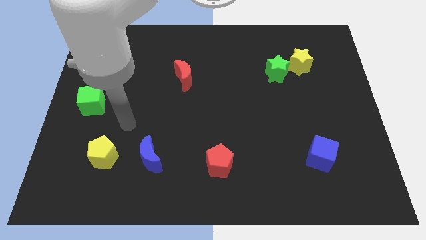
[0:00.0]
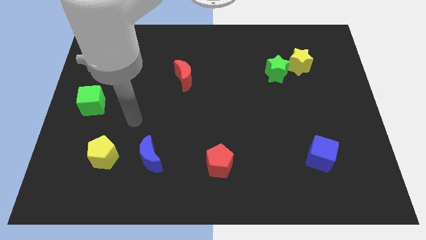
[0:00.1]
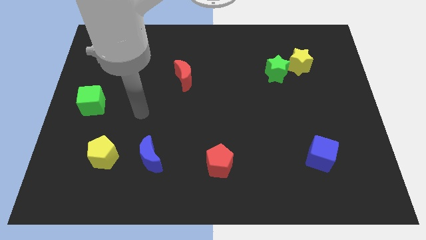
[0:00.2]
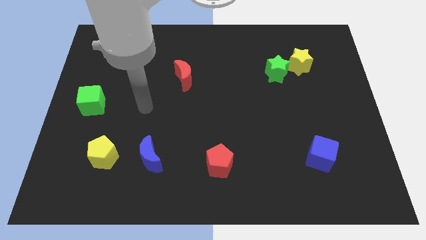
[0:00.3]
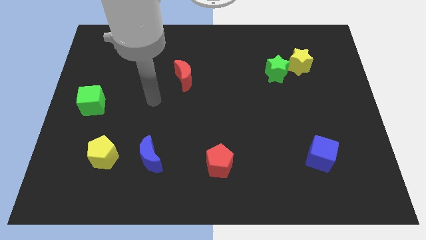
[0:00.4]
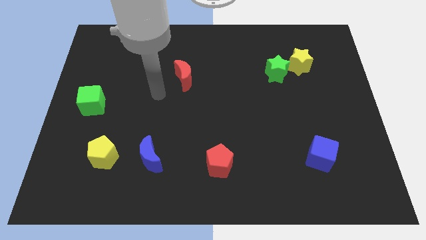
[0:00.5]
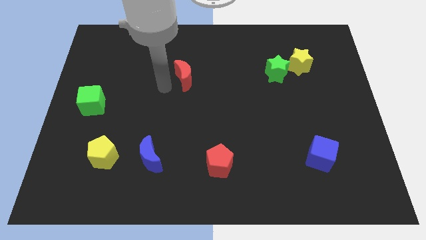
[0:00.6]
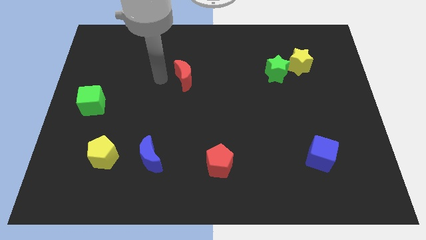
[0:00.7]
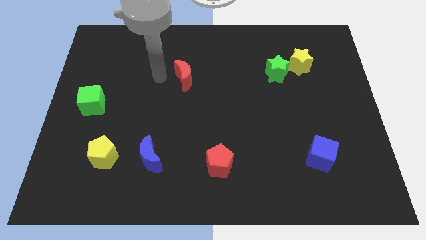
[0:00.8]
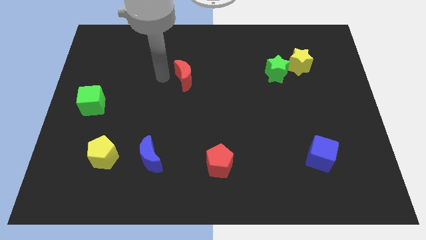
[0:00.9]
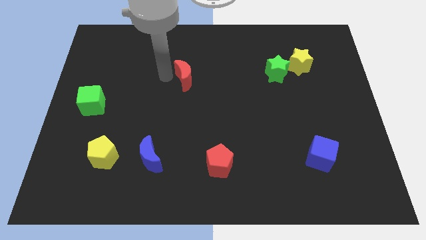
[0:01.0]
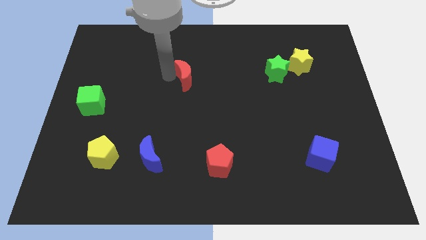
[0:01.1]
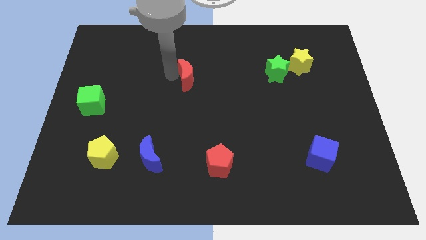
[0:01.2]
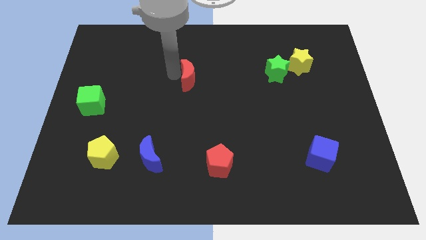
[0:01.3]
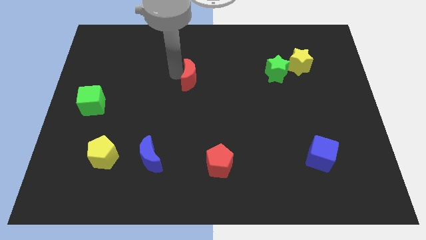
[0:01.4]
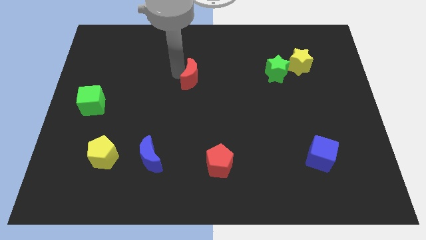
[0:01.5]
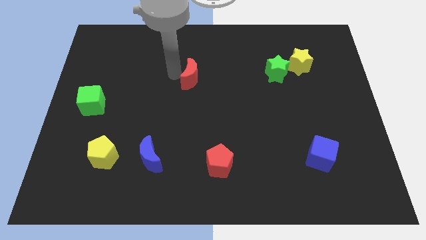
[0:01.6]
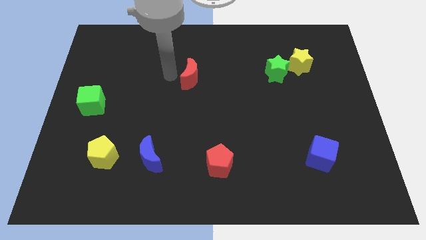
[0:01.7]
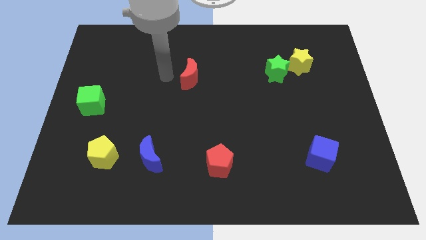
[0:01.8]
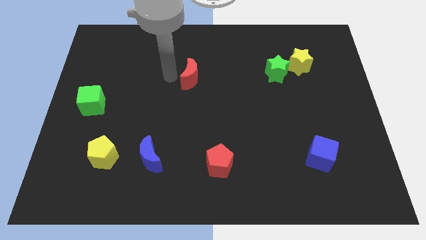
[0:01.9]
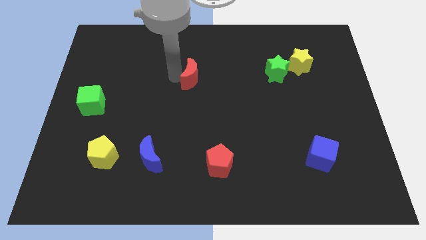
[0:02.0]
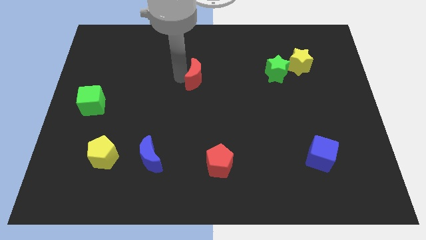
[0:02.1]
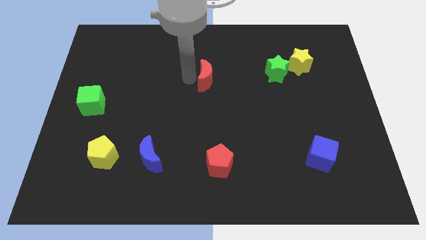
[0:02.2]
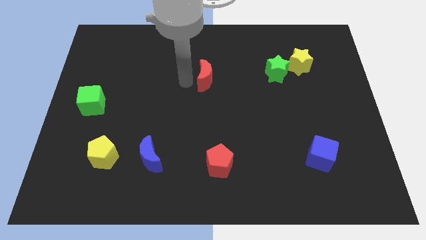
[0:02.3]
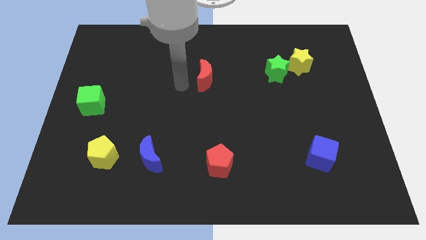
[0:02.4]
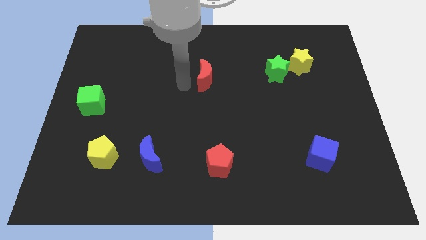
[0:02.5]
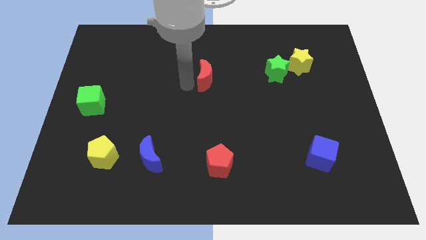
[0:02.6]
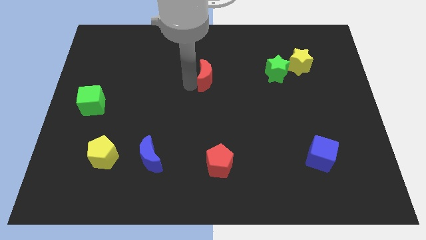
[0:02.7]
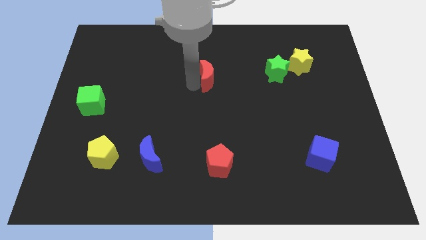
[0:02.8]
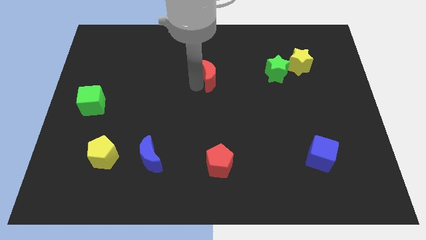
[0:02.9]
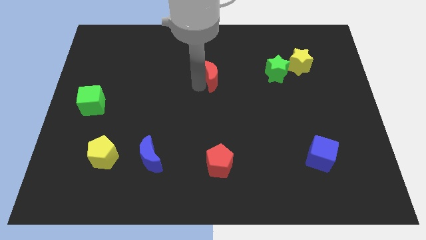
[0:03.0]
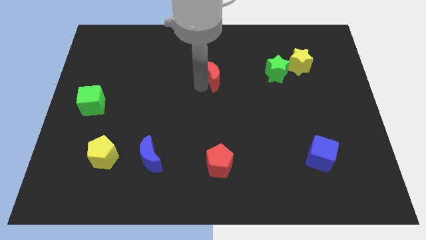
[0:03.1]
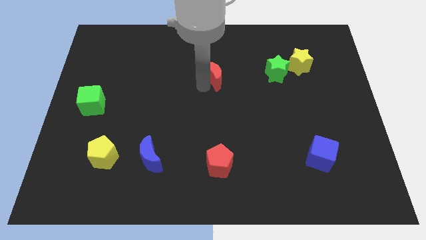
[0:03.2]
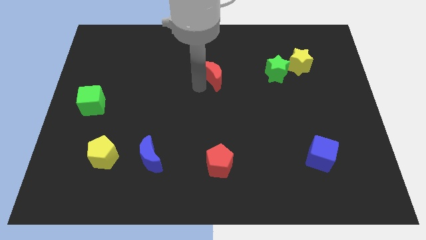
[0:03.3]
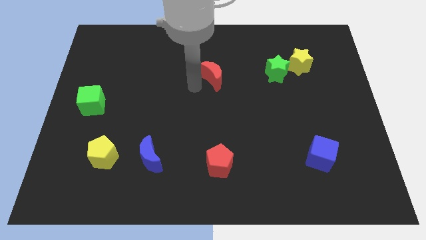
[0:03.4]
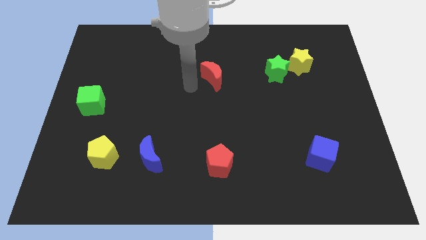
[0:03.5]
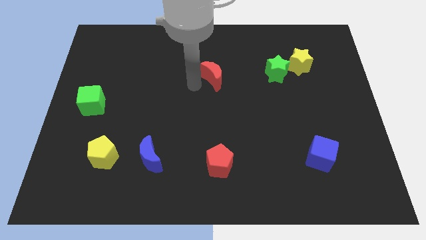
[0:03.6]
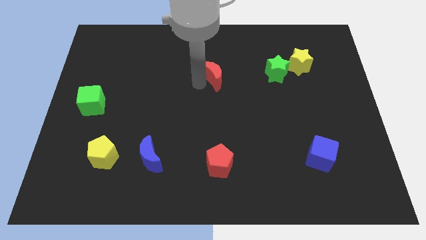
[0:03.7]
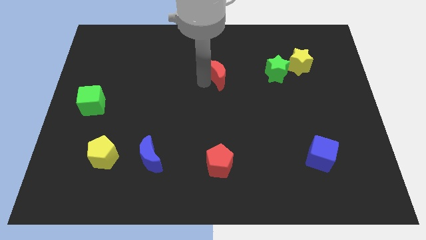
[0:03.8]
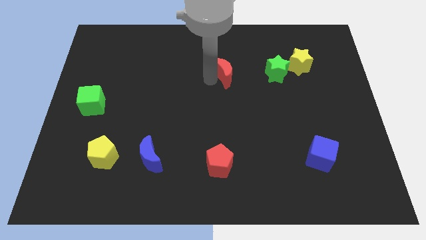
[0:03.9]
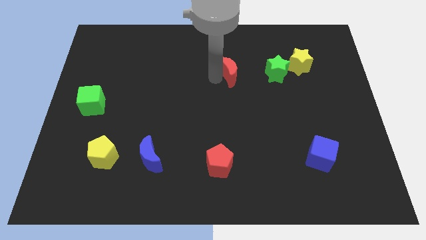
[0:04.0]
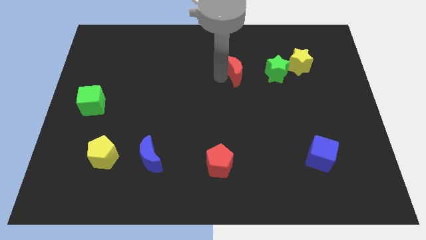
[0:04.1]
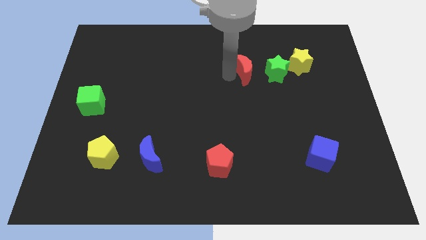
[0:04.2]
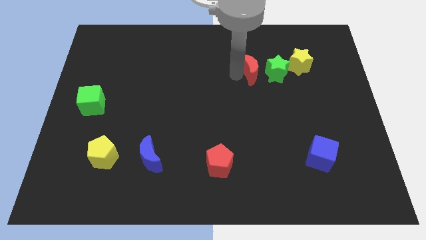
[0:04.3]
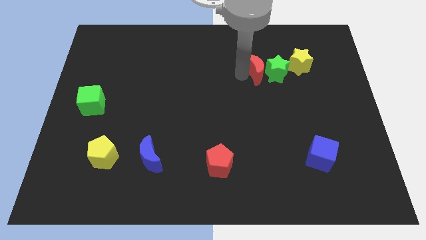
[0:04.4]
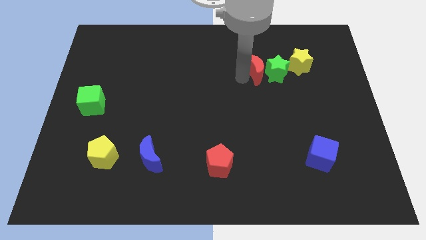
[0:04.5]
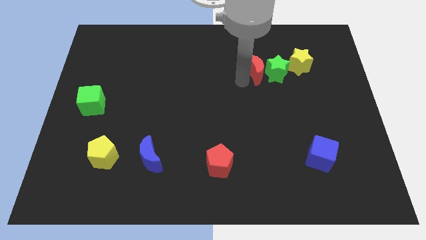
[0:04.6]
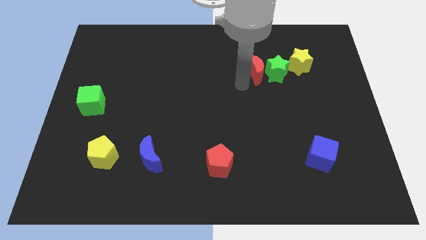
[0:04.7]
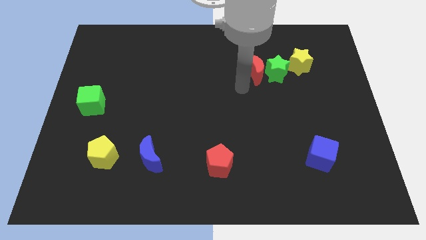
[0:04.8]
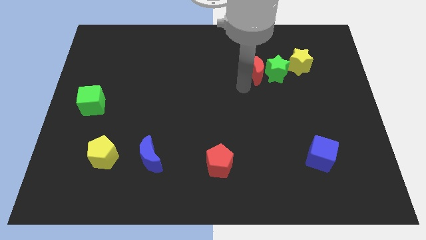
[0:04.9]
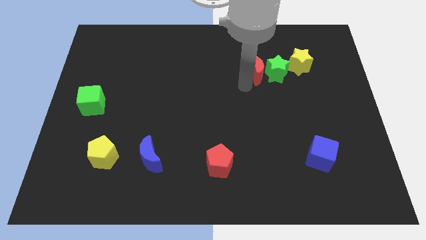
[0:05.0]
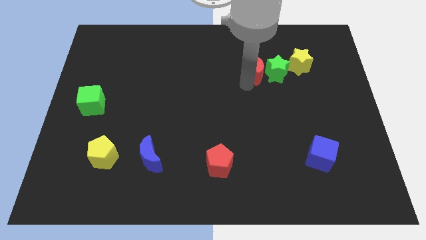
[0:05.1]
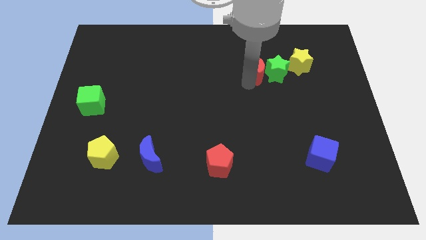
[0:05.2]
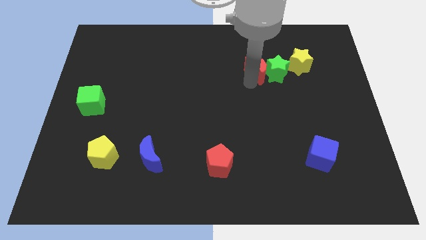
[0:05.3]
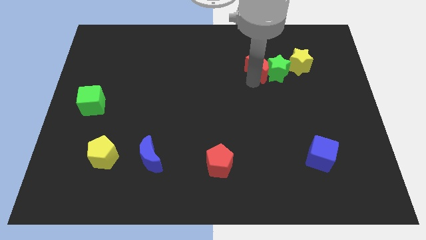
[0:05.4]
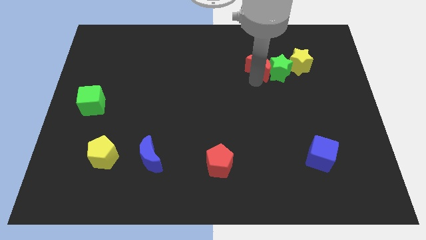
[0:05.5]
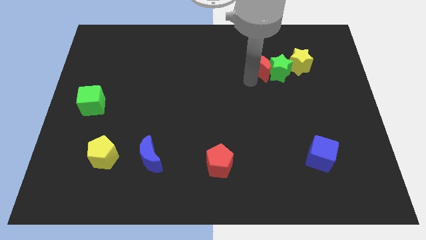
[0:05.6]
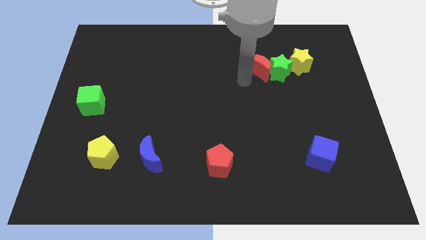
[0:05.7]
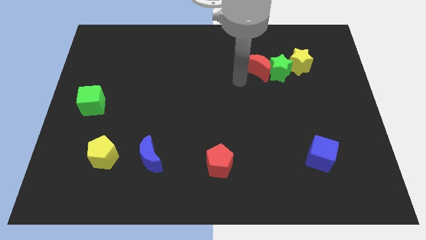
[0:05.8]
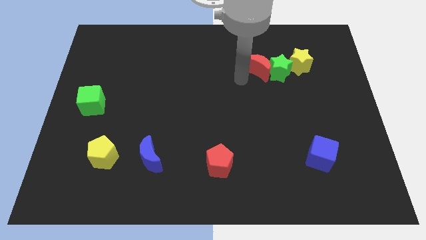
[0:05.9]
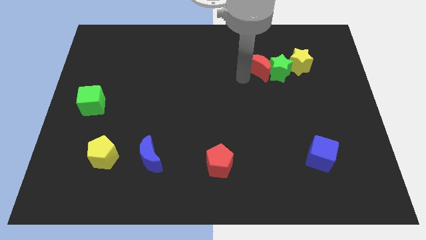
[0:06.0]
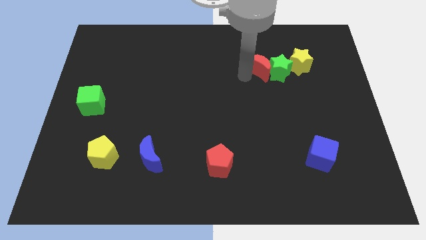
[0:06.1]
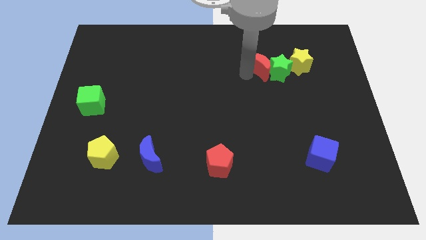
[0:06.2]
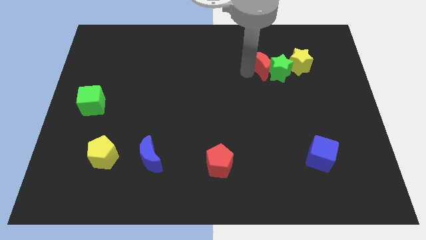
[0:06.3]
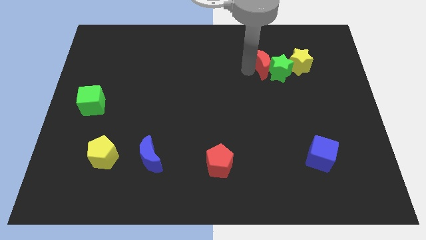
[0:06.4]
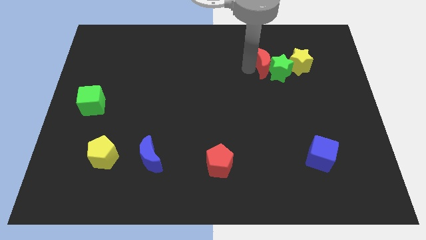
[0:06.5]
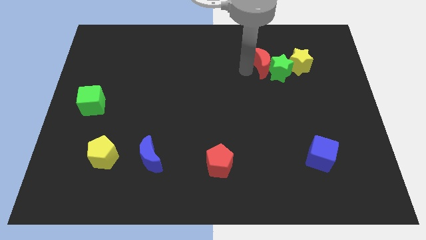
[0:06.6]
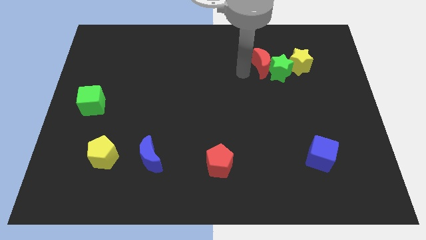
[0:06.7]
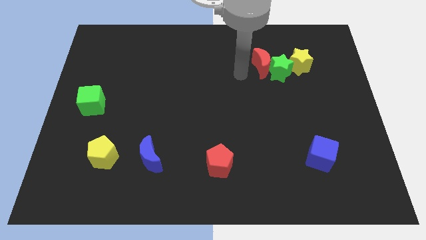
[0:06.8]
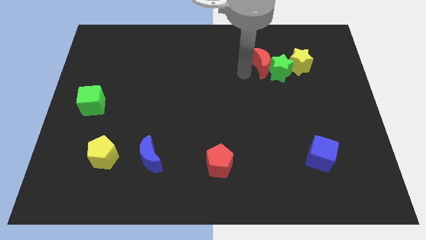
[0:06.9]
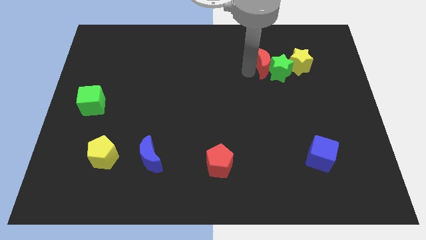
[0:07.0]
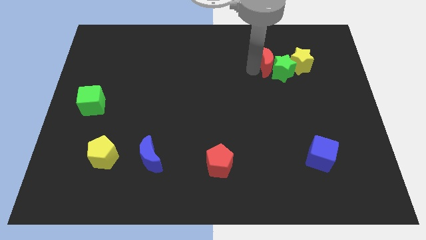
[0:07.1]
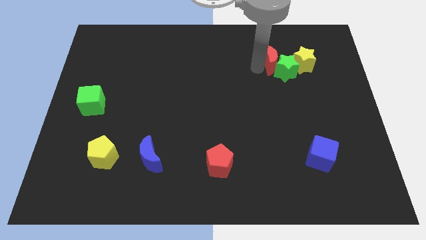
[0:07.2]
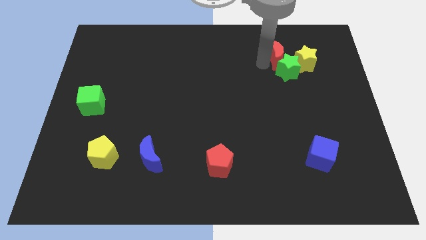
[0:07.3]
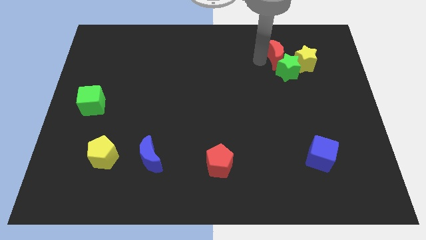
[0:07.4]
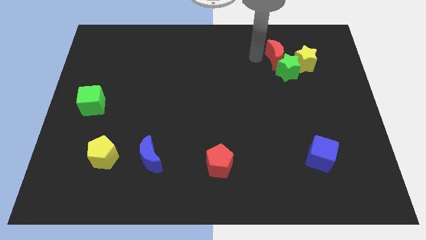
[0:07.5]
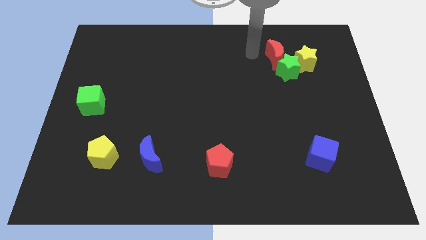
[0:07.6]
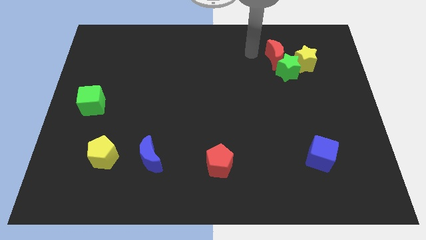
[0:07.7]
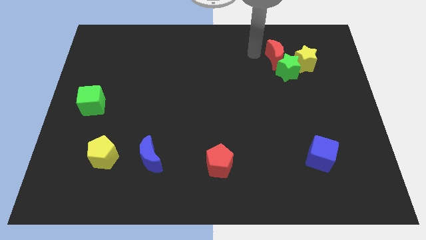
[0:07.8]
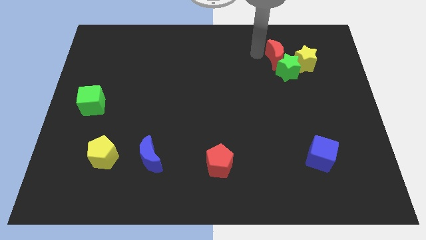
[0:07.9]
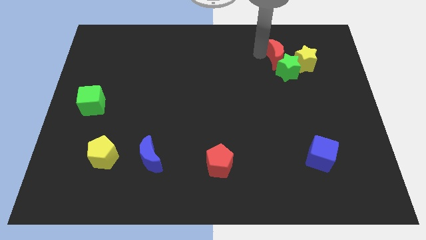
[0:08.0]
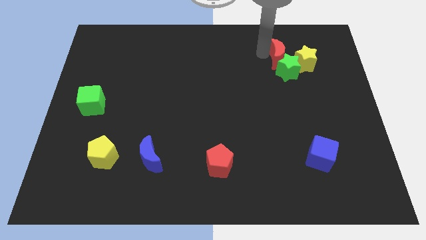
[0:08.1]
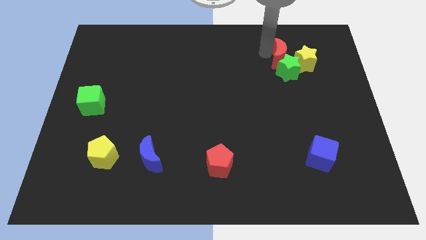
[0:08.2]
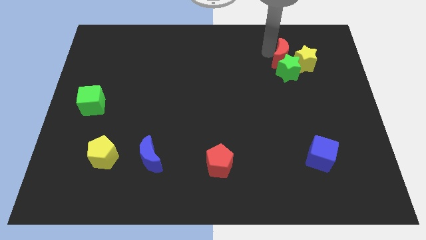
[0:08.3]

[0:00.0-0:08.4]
put the red moon next to the yellow star
